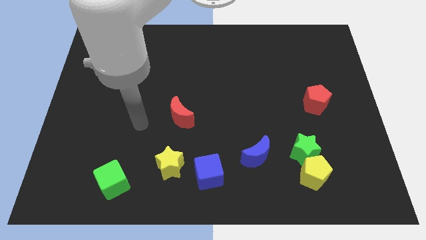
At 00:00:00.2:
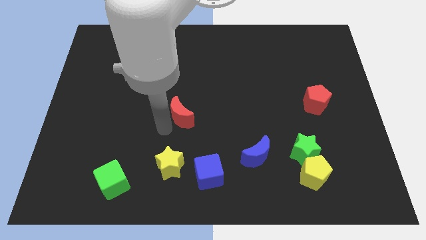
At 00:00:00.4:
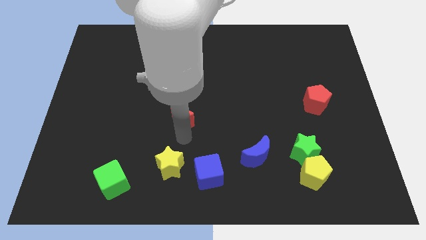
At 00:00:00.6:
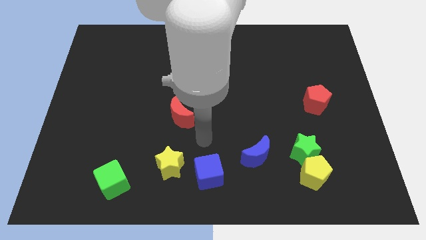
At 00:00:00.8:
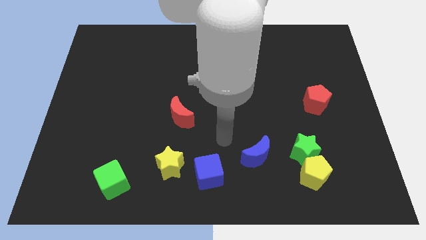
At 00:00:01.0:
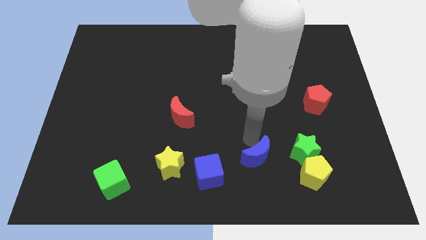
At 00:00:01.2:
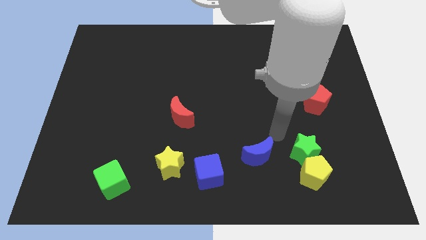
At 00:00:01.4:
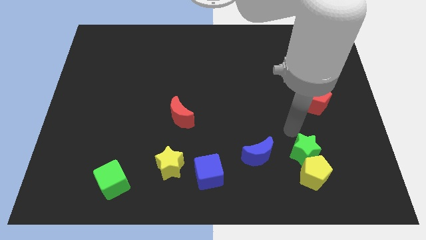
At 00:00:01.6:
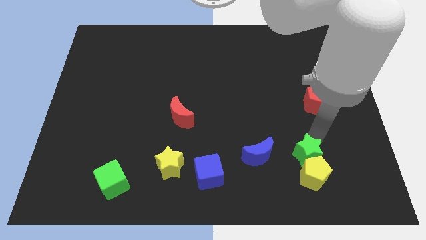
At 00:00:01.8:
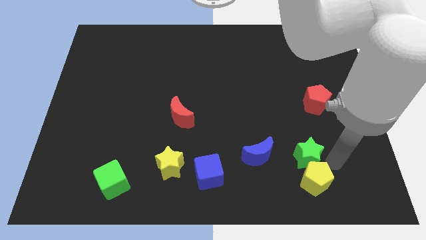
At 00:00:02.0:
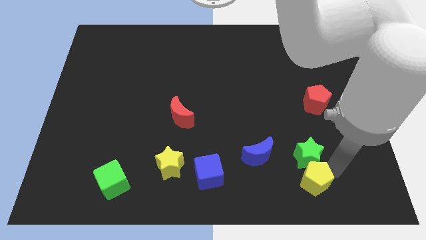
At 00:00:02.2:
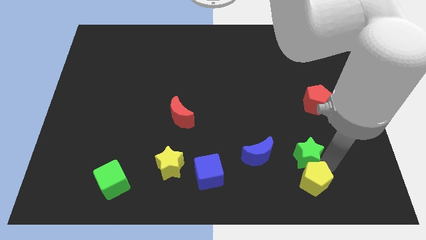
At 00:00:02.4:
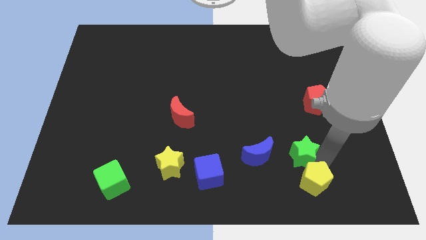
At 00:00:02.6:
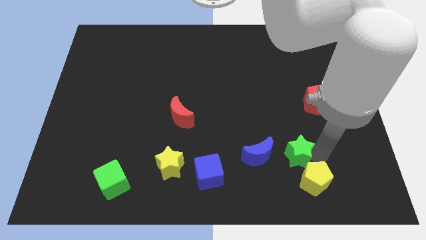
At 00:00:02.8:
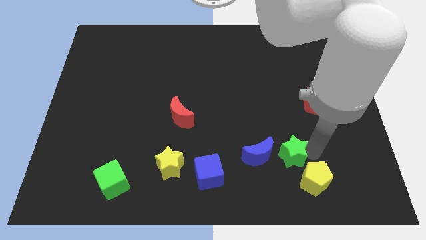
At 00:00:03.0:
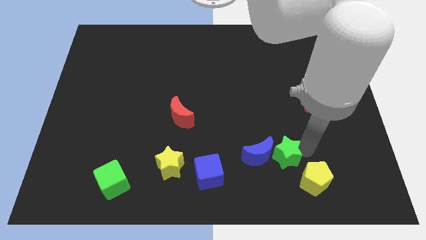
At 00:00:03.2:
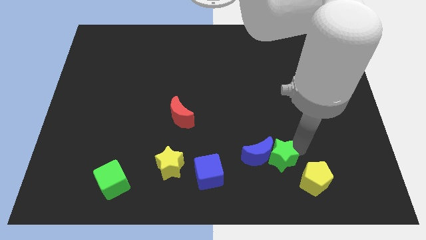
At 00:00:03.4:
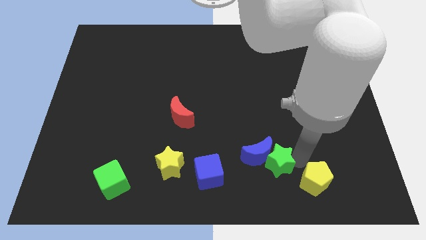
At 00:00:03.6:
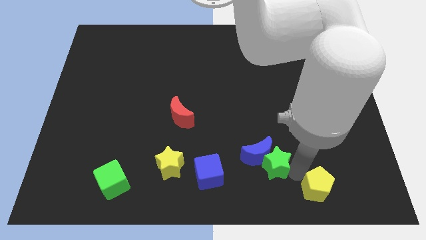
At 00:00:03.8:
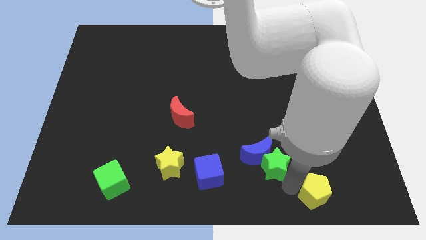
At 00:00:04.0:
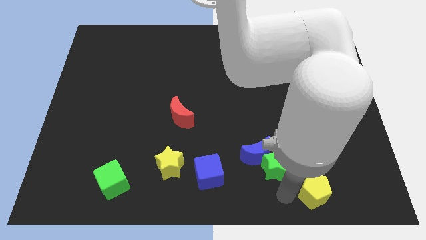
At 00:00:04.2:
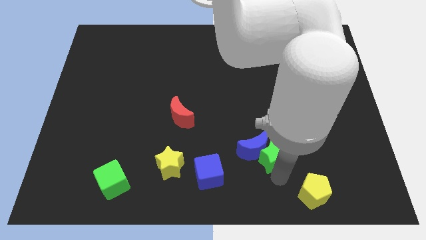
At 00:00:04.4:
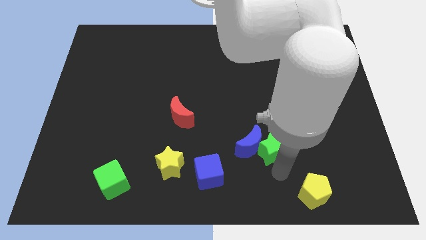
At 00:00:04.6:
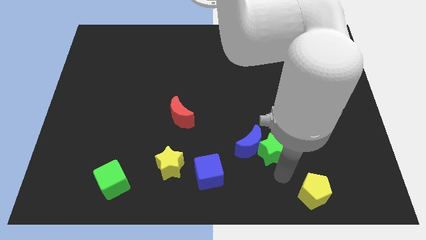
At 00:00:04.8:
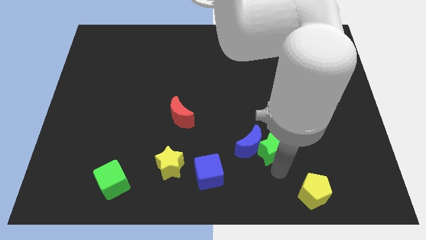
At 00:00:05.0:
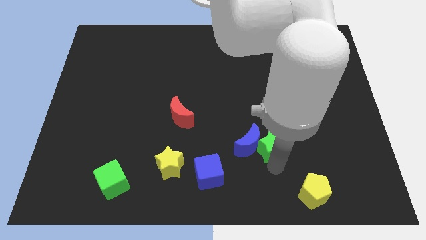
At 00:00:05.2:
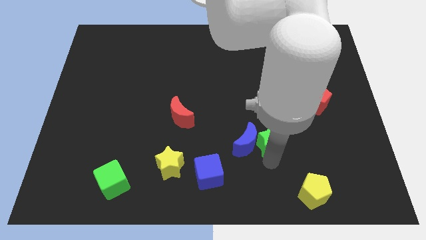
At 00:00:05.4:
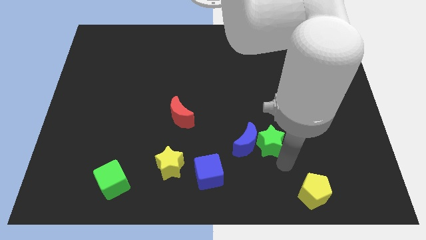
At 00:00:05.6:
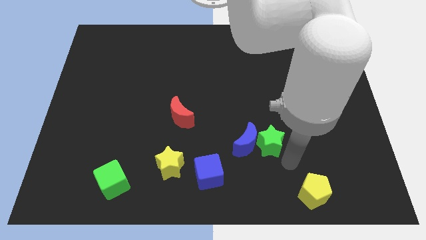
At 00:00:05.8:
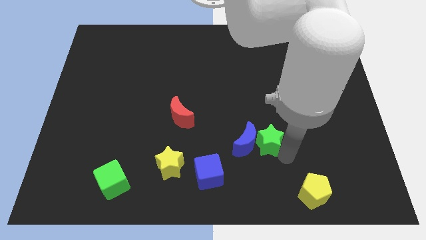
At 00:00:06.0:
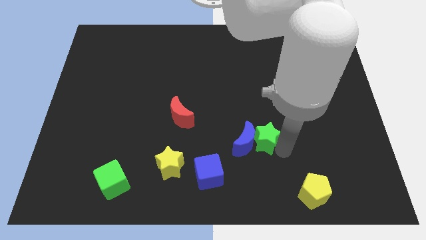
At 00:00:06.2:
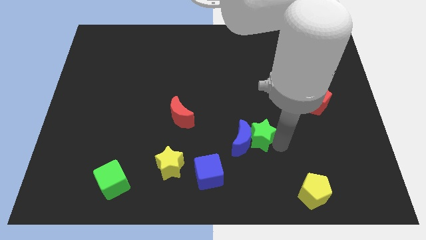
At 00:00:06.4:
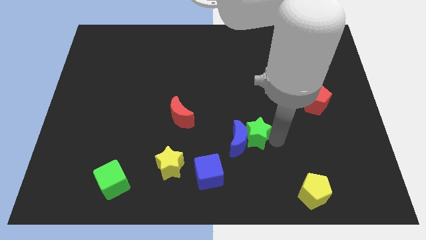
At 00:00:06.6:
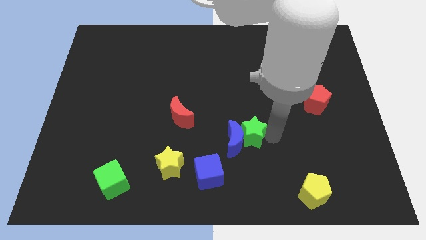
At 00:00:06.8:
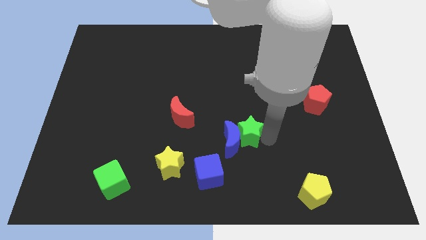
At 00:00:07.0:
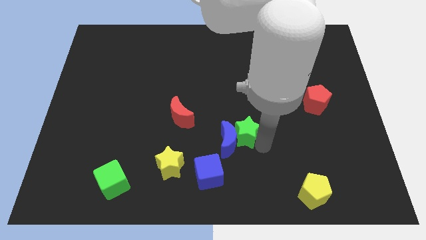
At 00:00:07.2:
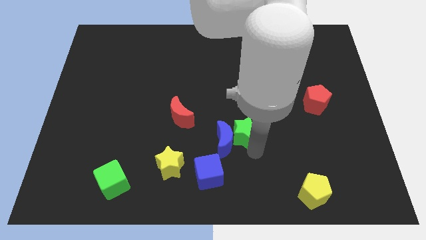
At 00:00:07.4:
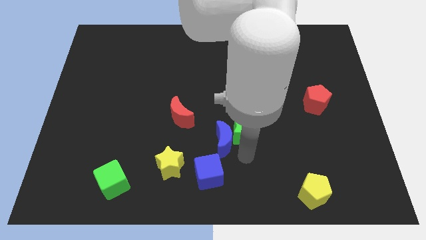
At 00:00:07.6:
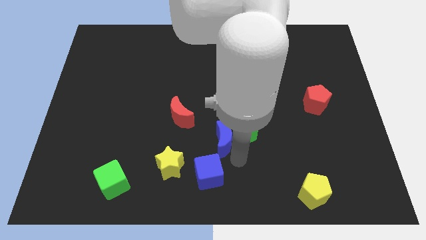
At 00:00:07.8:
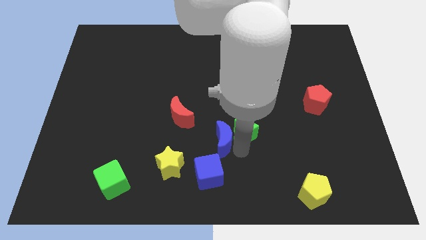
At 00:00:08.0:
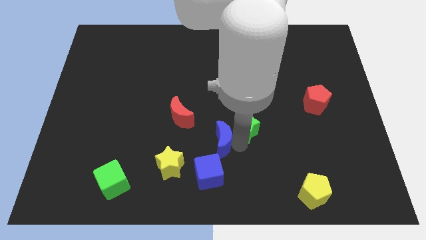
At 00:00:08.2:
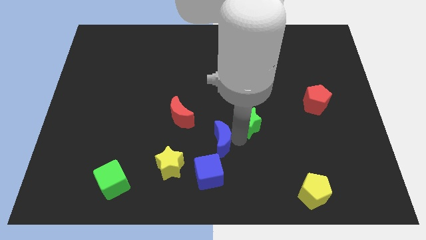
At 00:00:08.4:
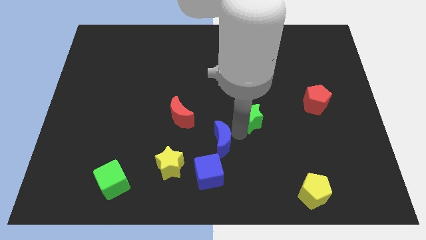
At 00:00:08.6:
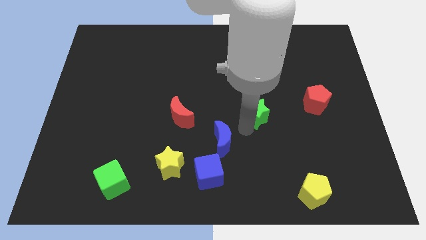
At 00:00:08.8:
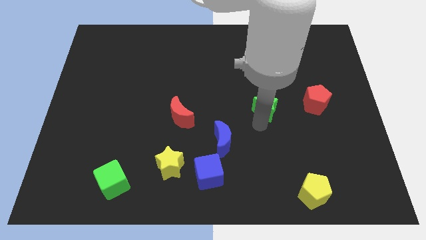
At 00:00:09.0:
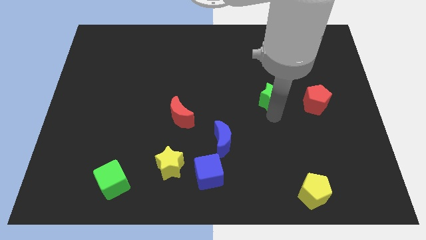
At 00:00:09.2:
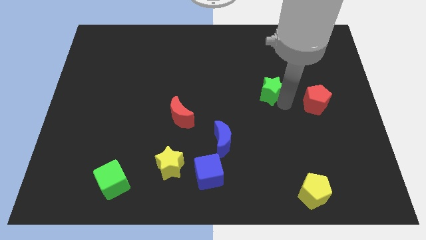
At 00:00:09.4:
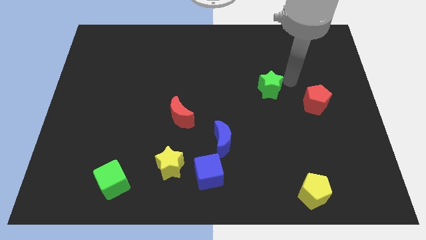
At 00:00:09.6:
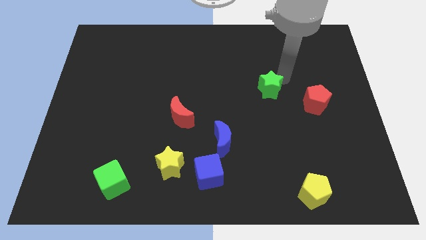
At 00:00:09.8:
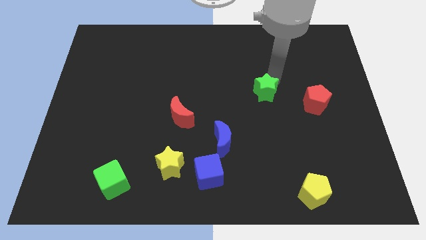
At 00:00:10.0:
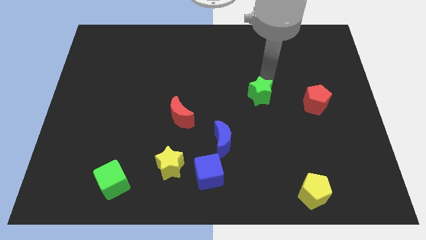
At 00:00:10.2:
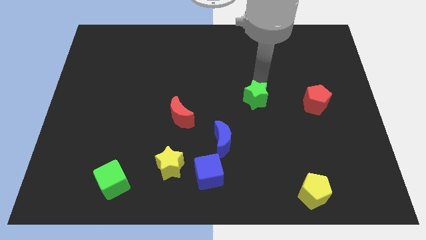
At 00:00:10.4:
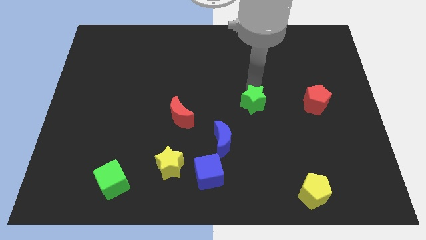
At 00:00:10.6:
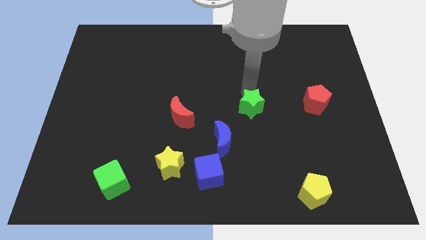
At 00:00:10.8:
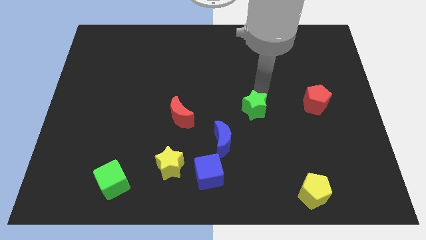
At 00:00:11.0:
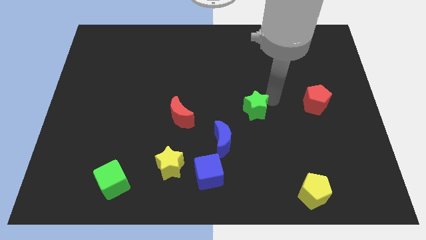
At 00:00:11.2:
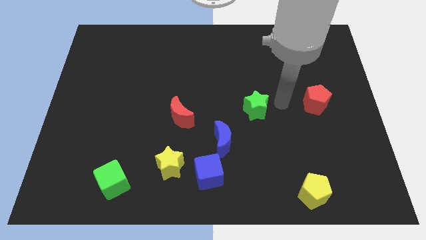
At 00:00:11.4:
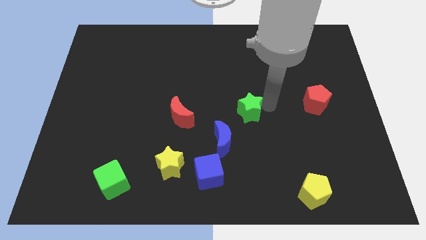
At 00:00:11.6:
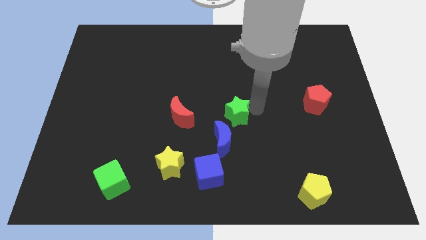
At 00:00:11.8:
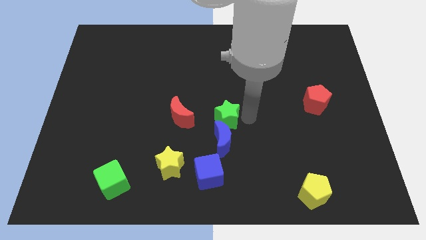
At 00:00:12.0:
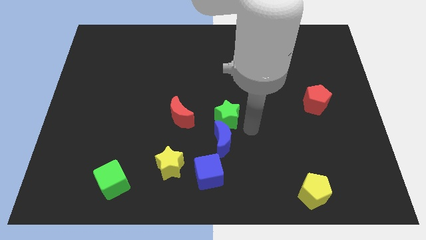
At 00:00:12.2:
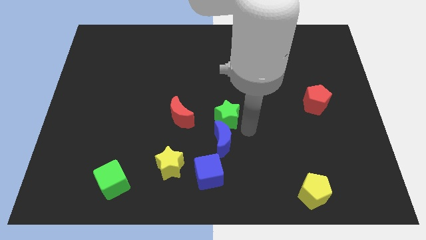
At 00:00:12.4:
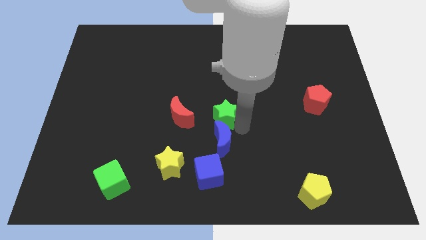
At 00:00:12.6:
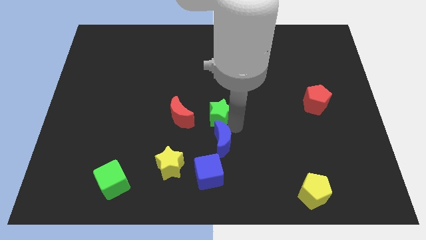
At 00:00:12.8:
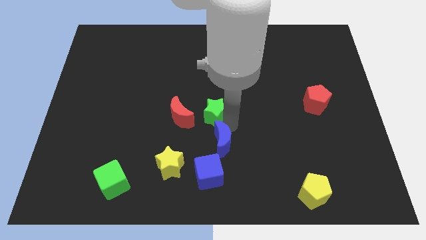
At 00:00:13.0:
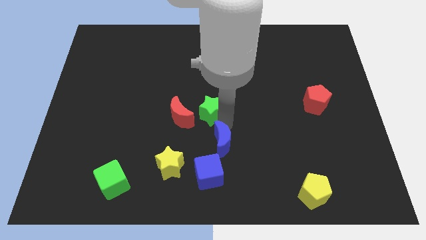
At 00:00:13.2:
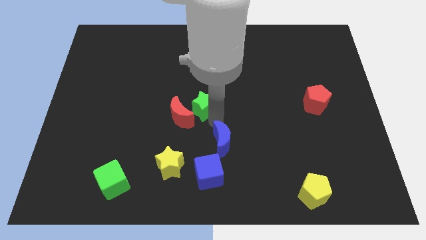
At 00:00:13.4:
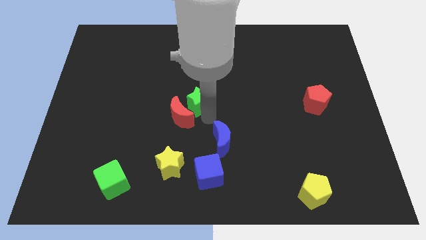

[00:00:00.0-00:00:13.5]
slide the green star to the top side of the red moon
